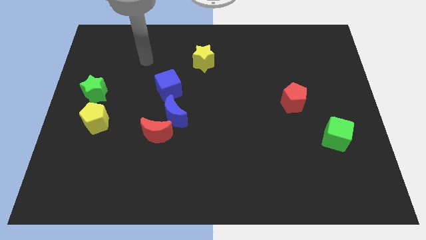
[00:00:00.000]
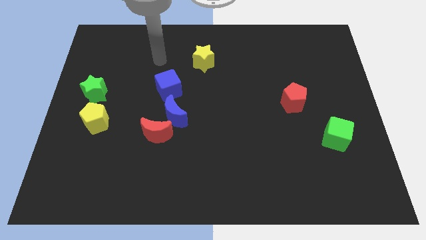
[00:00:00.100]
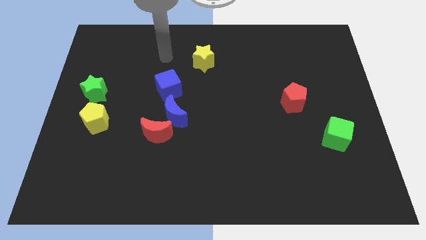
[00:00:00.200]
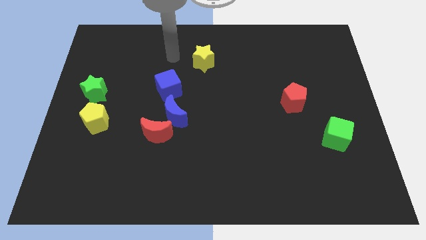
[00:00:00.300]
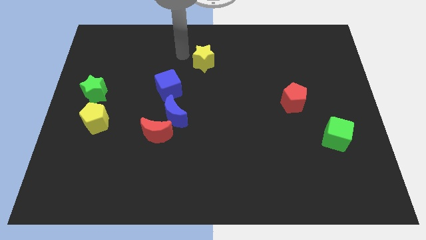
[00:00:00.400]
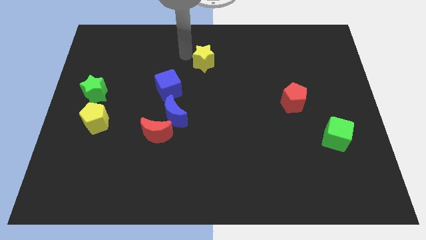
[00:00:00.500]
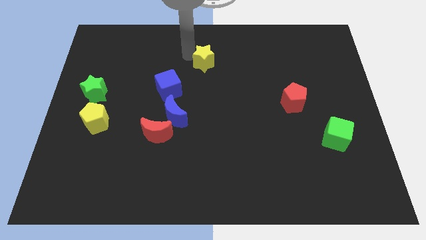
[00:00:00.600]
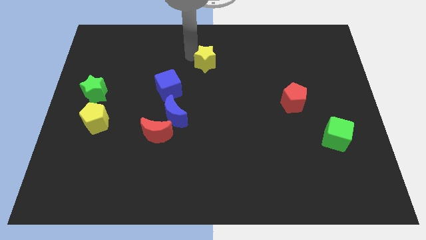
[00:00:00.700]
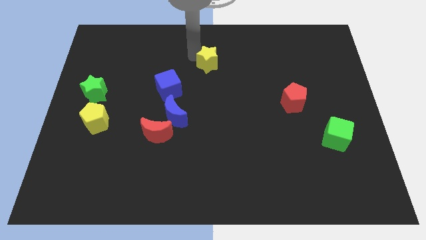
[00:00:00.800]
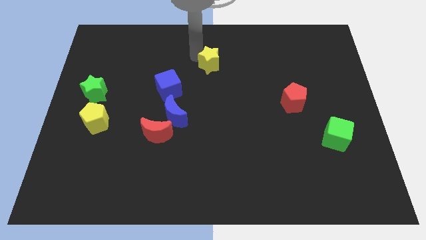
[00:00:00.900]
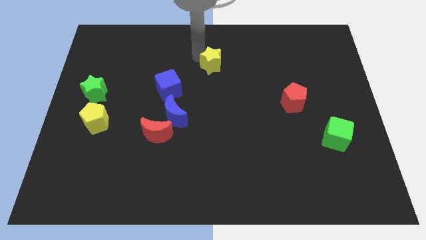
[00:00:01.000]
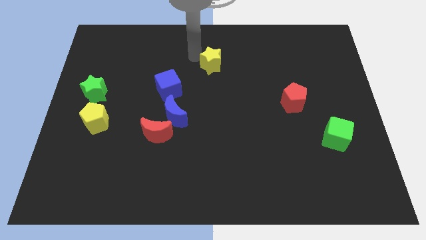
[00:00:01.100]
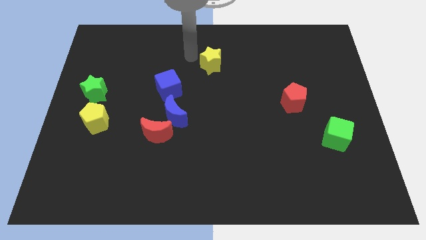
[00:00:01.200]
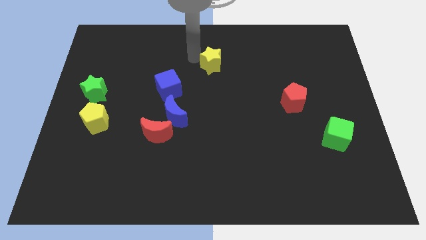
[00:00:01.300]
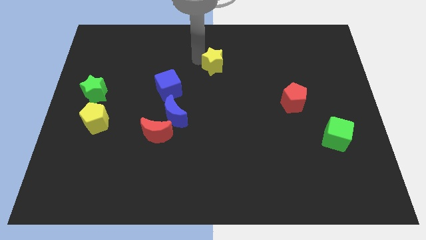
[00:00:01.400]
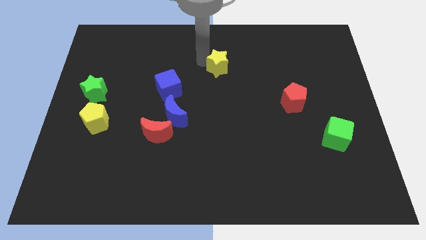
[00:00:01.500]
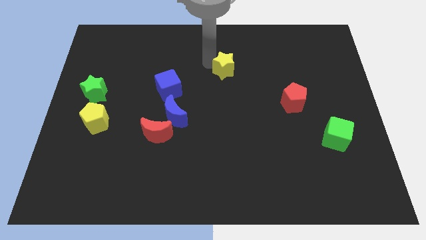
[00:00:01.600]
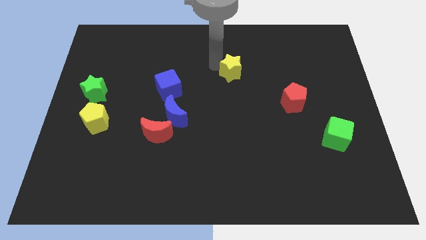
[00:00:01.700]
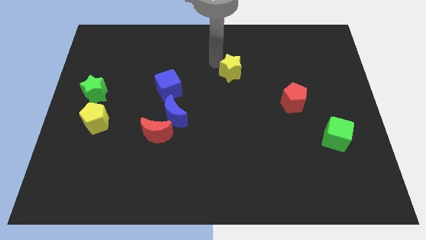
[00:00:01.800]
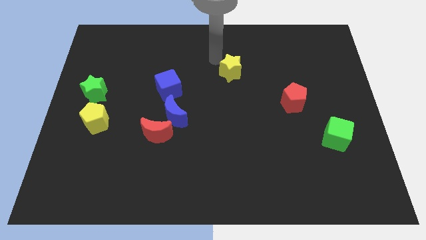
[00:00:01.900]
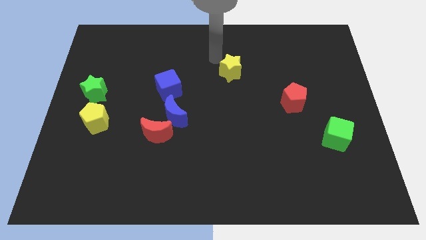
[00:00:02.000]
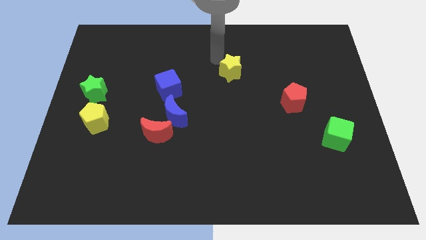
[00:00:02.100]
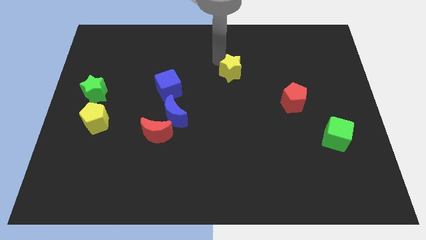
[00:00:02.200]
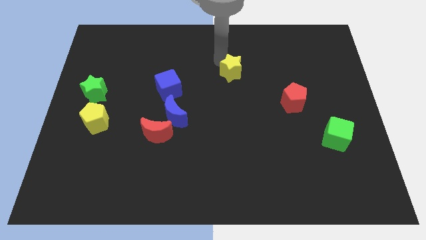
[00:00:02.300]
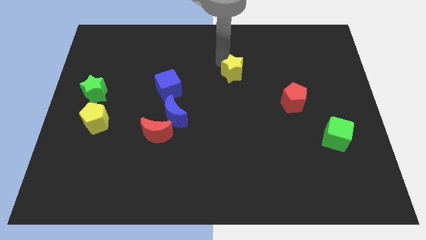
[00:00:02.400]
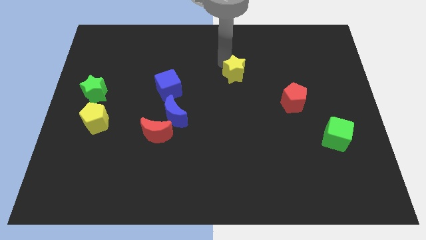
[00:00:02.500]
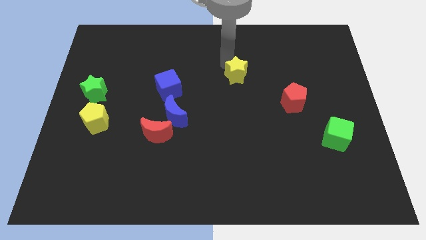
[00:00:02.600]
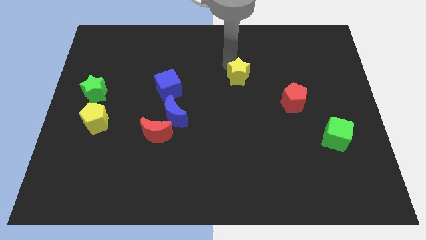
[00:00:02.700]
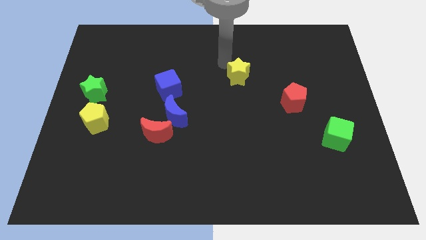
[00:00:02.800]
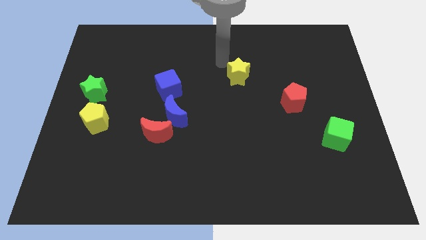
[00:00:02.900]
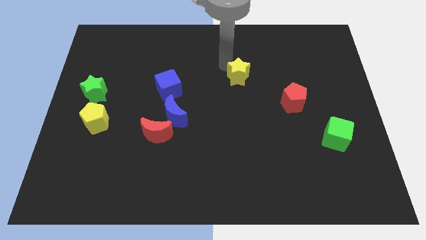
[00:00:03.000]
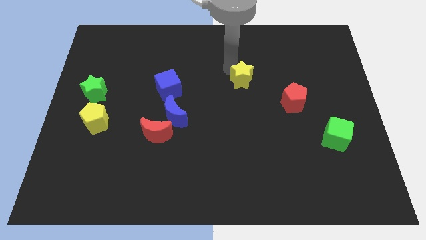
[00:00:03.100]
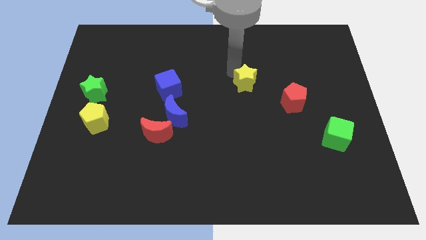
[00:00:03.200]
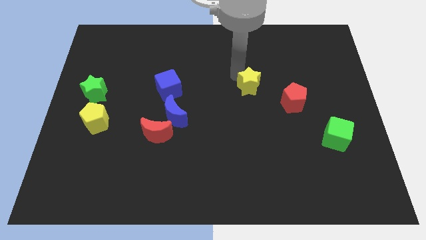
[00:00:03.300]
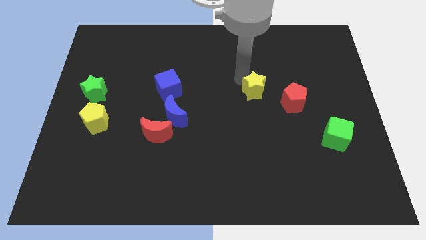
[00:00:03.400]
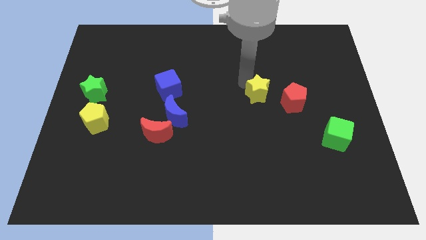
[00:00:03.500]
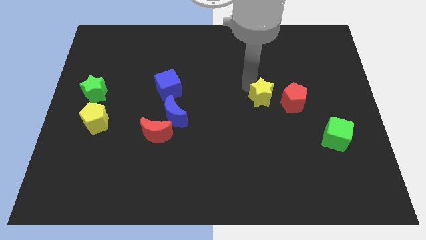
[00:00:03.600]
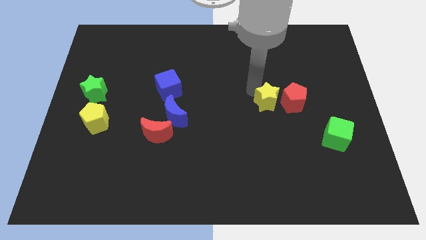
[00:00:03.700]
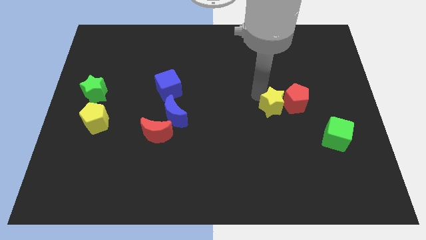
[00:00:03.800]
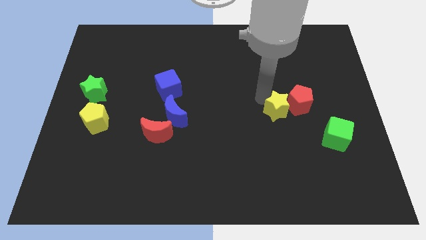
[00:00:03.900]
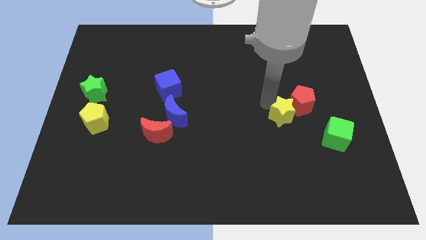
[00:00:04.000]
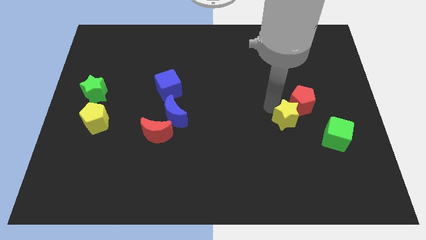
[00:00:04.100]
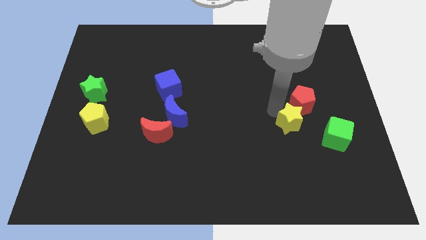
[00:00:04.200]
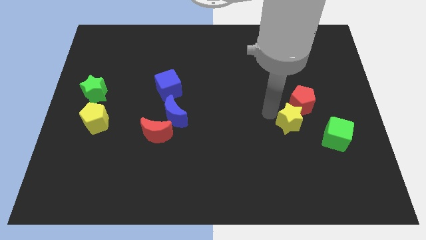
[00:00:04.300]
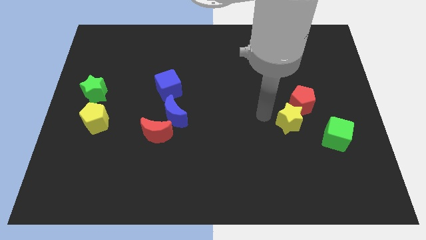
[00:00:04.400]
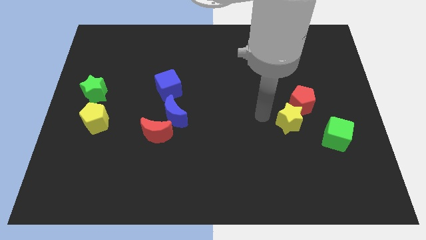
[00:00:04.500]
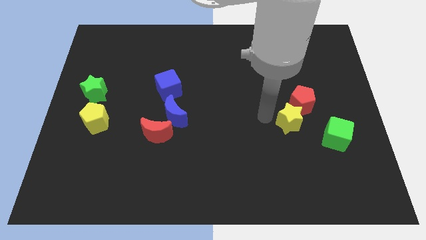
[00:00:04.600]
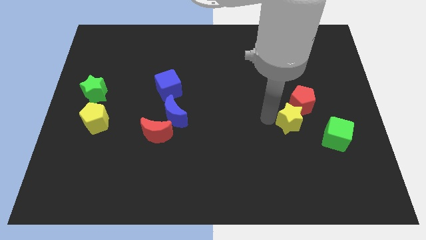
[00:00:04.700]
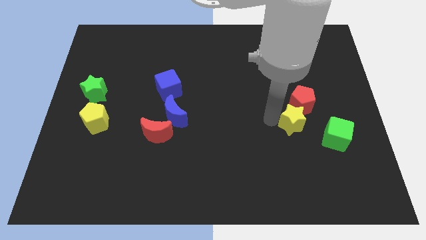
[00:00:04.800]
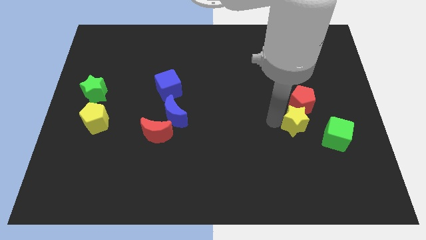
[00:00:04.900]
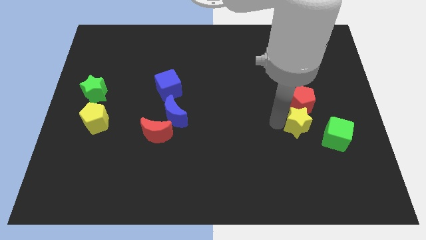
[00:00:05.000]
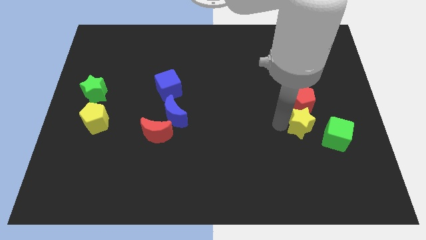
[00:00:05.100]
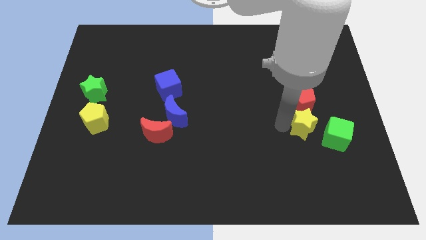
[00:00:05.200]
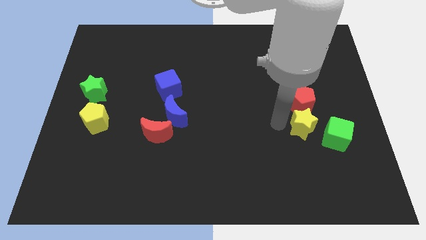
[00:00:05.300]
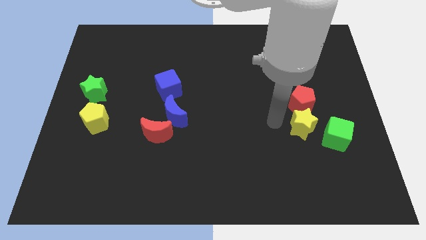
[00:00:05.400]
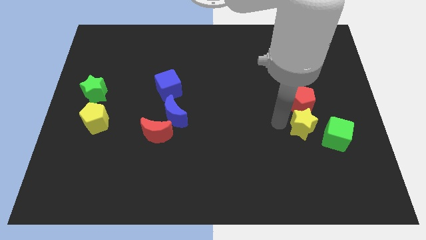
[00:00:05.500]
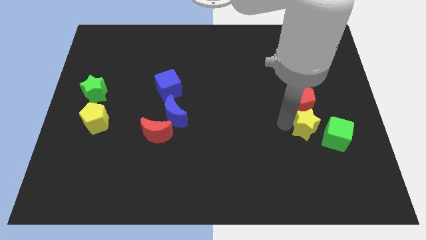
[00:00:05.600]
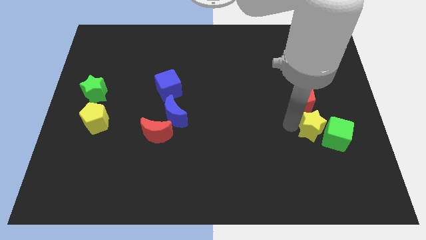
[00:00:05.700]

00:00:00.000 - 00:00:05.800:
move the yellow star towards the green cube

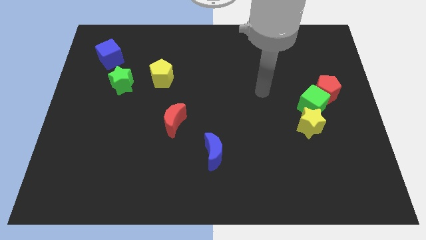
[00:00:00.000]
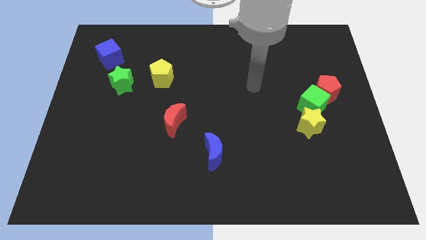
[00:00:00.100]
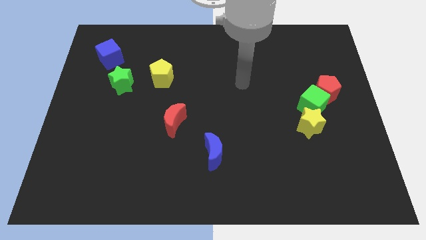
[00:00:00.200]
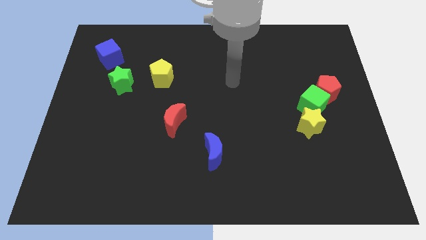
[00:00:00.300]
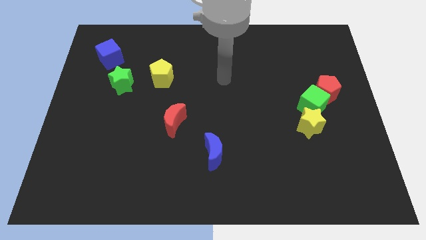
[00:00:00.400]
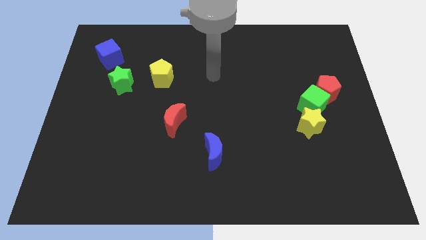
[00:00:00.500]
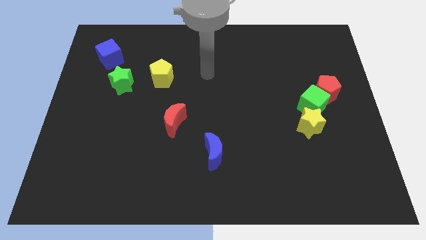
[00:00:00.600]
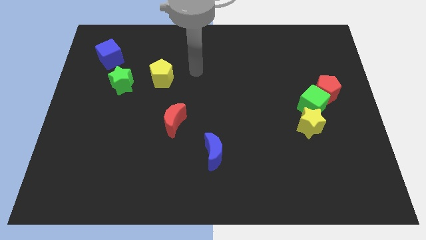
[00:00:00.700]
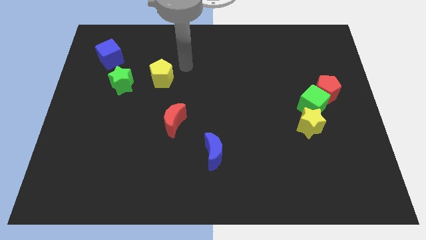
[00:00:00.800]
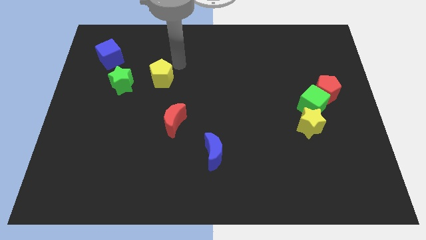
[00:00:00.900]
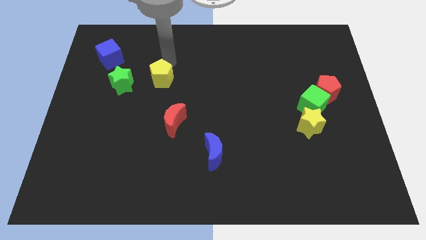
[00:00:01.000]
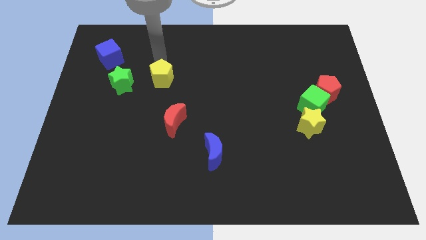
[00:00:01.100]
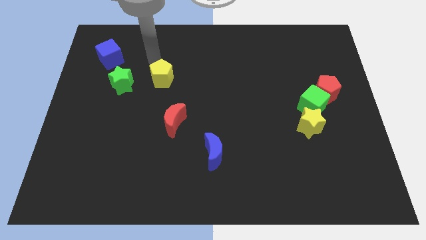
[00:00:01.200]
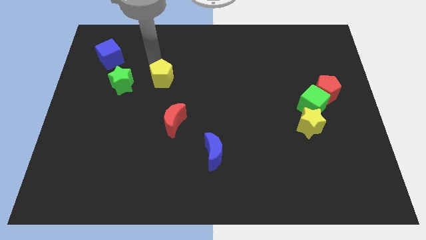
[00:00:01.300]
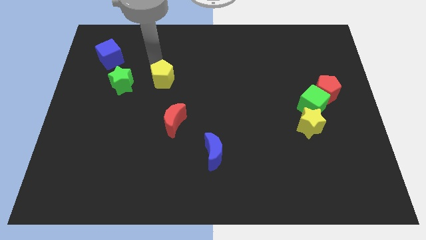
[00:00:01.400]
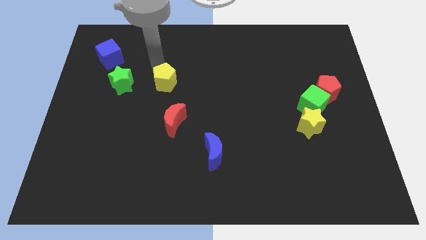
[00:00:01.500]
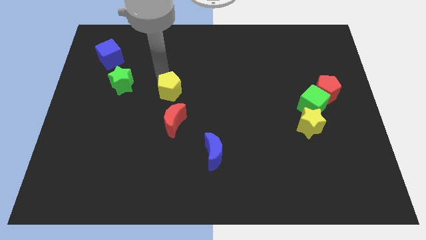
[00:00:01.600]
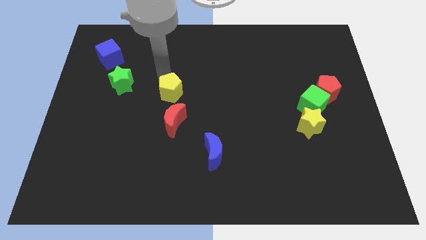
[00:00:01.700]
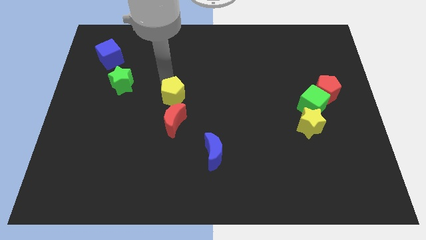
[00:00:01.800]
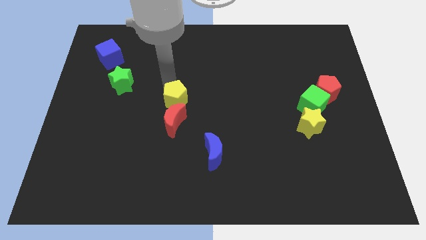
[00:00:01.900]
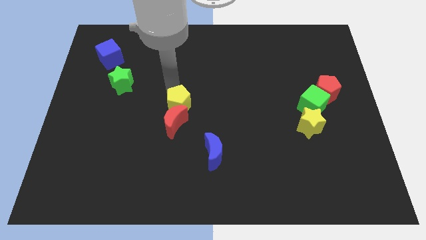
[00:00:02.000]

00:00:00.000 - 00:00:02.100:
put the yellow pentagon close to the red moon

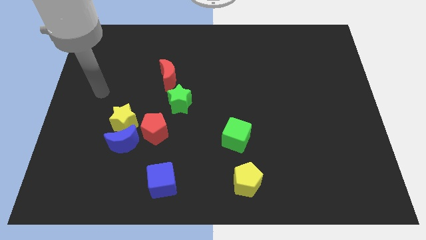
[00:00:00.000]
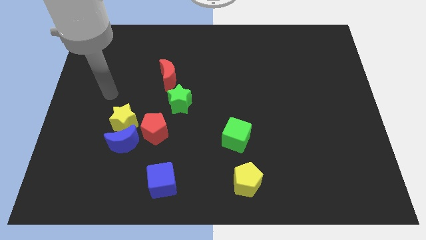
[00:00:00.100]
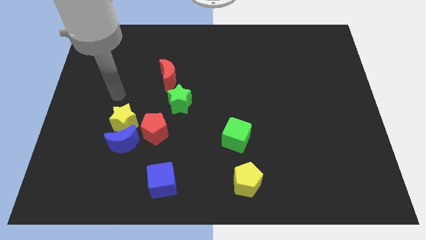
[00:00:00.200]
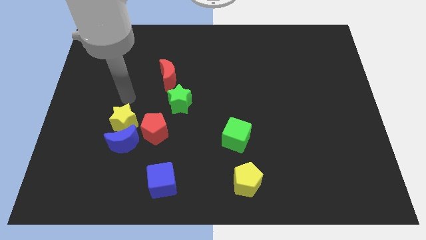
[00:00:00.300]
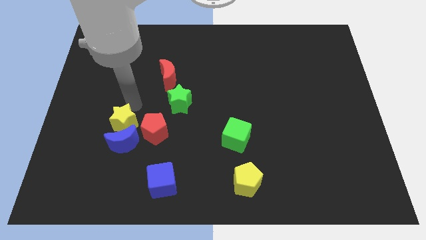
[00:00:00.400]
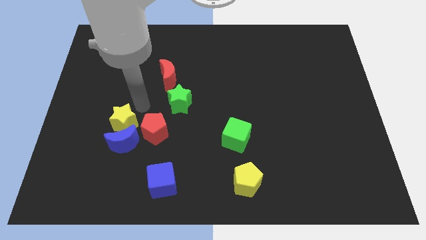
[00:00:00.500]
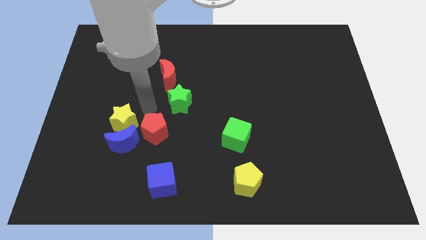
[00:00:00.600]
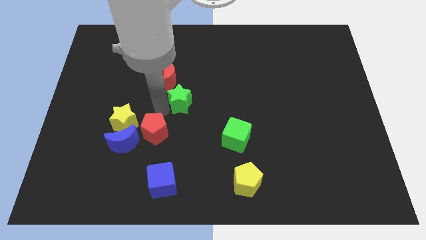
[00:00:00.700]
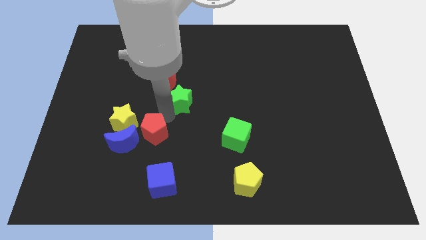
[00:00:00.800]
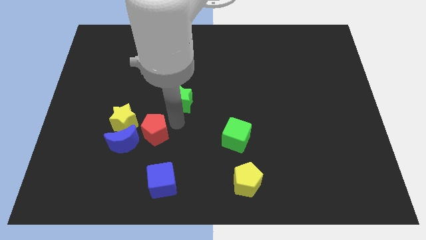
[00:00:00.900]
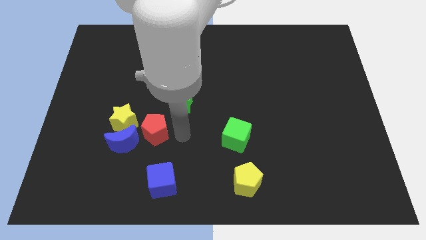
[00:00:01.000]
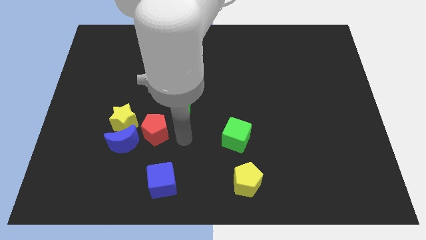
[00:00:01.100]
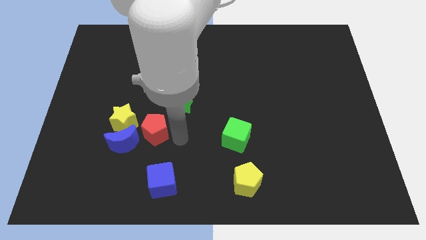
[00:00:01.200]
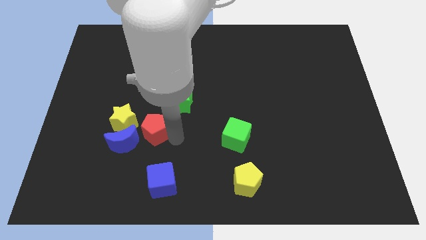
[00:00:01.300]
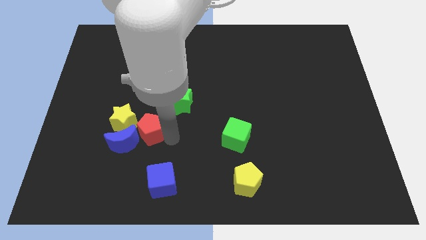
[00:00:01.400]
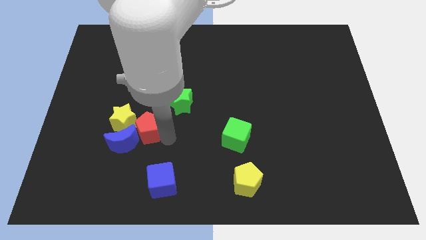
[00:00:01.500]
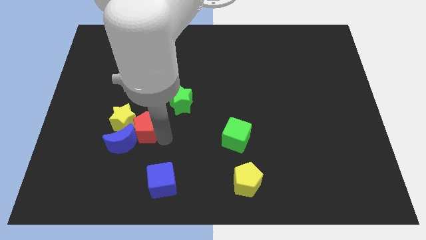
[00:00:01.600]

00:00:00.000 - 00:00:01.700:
slide the red pentagon next to the yellow star
